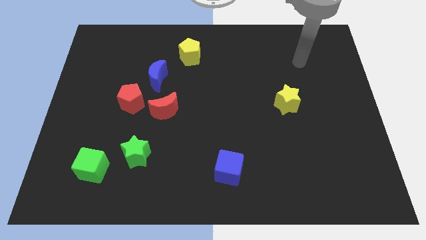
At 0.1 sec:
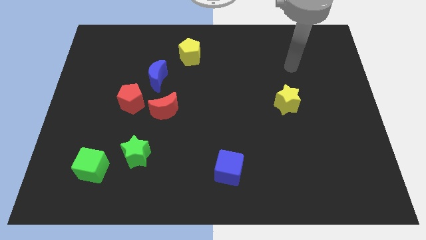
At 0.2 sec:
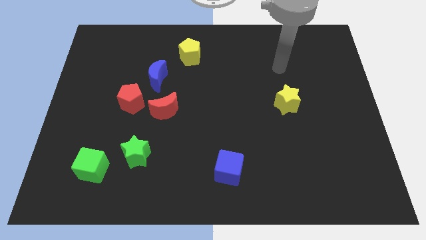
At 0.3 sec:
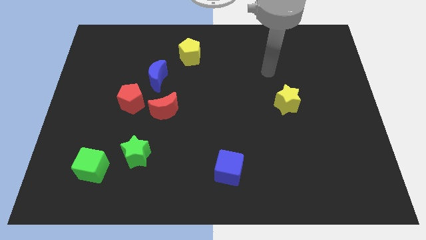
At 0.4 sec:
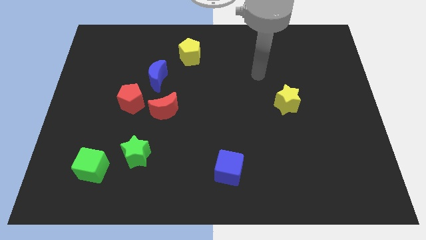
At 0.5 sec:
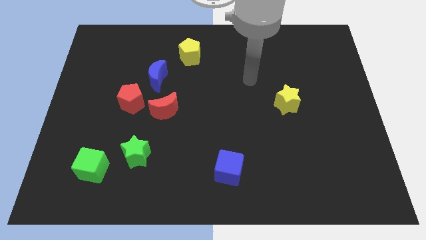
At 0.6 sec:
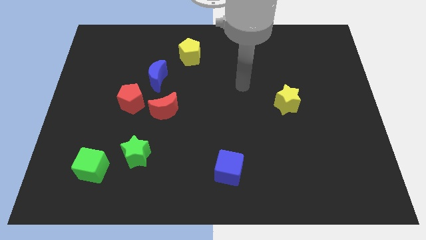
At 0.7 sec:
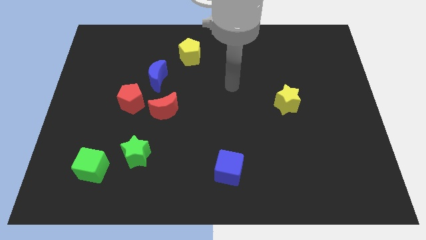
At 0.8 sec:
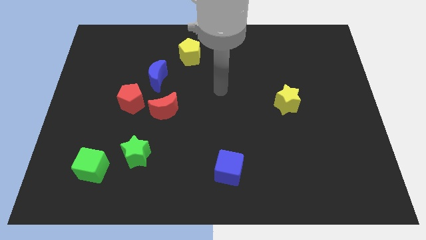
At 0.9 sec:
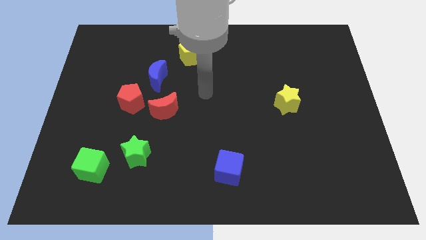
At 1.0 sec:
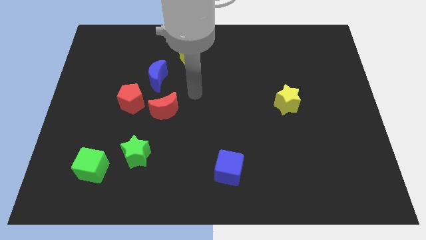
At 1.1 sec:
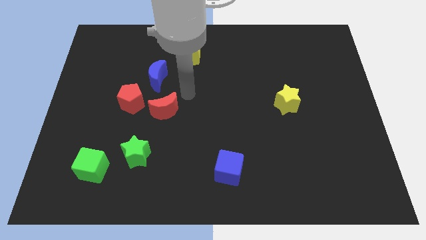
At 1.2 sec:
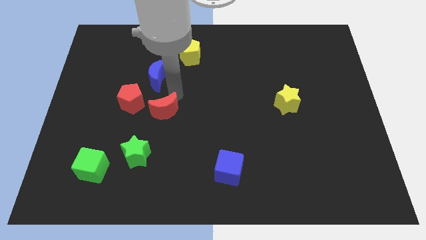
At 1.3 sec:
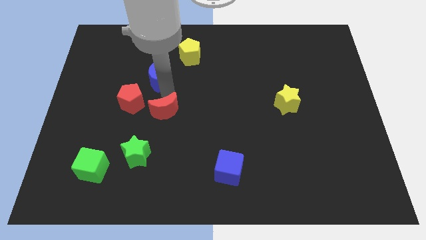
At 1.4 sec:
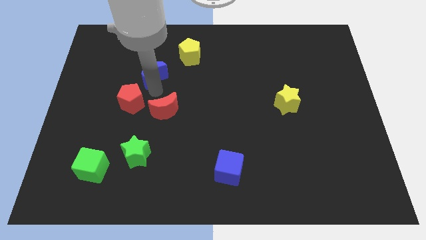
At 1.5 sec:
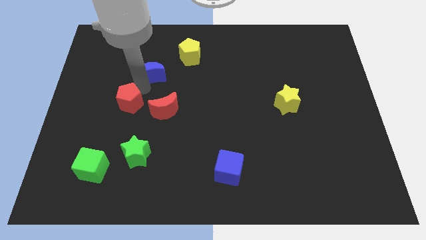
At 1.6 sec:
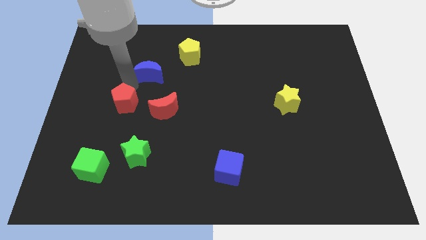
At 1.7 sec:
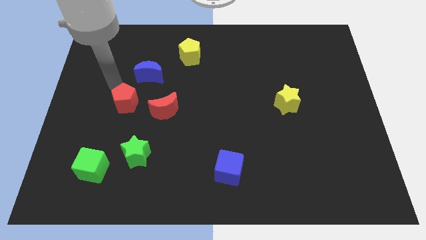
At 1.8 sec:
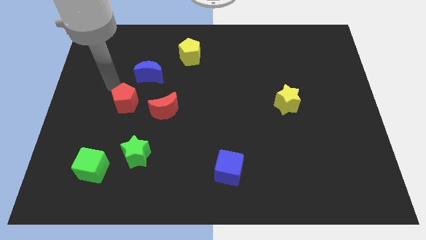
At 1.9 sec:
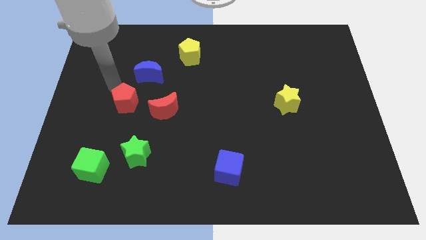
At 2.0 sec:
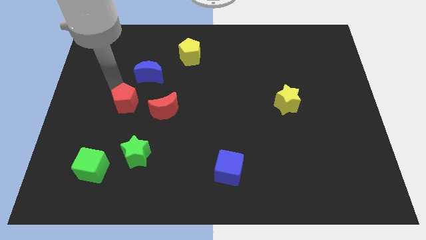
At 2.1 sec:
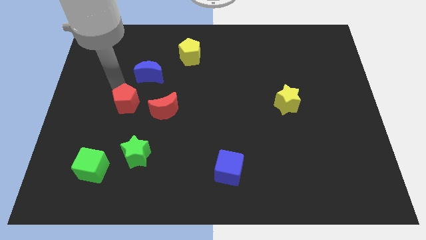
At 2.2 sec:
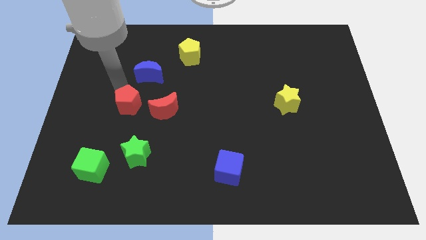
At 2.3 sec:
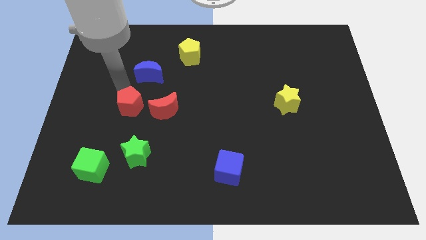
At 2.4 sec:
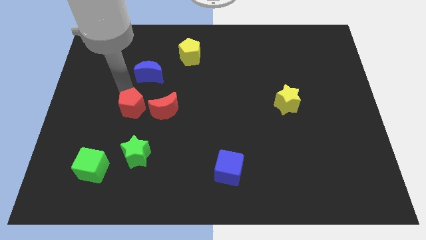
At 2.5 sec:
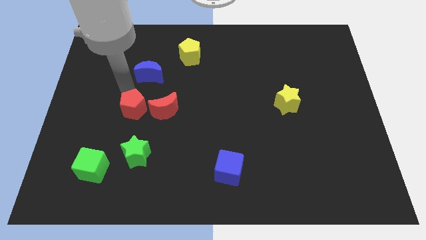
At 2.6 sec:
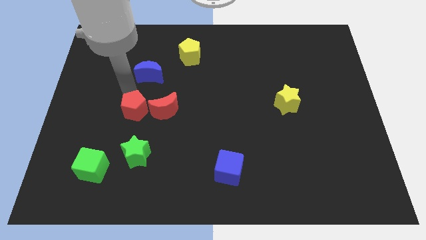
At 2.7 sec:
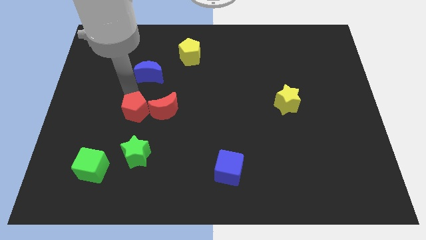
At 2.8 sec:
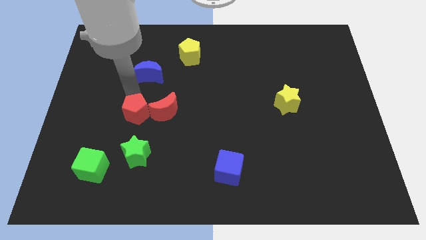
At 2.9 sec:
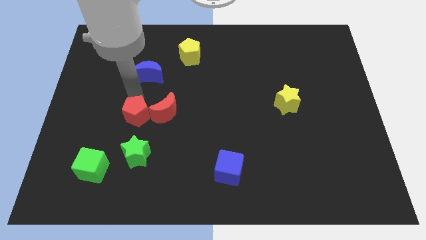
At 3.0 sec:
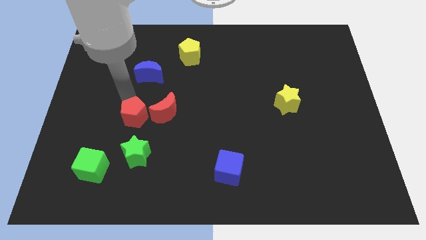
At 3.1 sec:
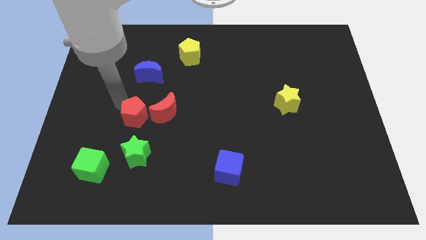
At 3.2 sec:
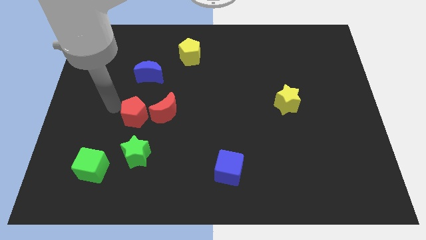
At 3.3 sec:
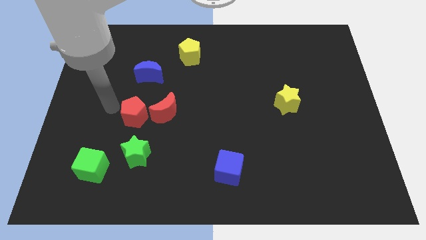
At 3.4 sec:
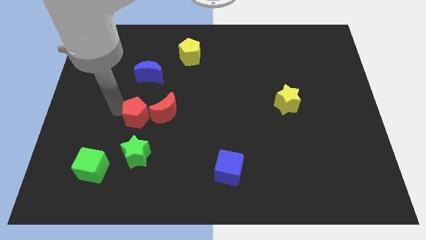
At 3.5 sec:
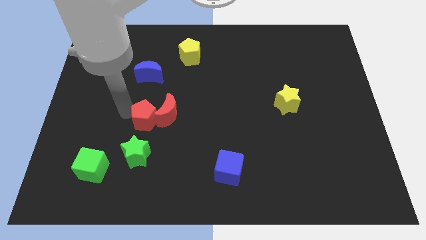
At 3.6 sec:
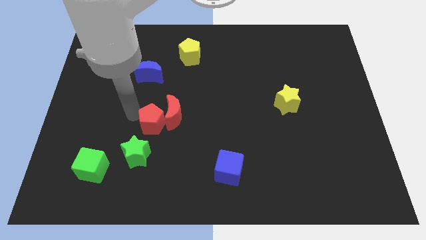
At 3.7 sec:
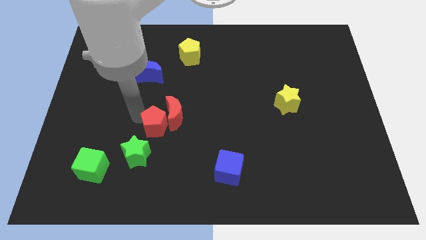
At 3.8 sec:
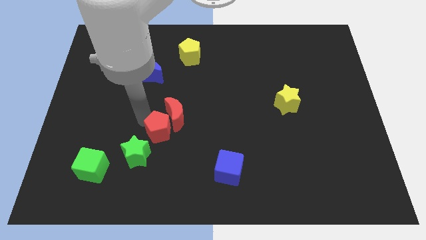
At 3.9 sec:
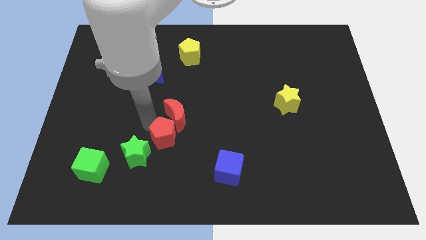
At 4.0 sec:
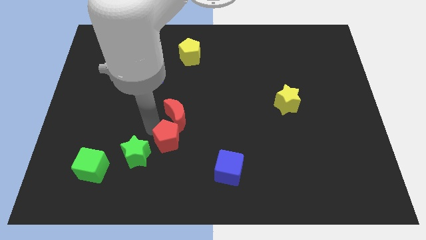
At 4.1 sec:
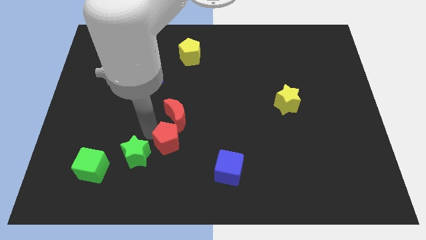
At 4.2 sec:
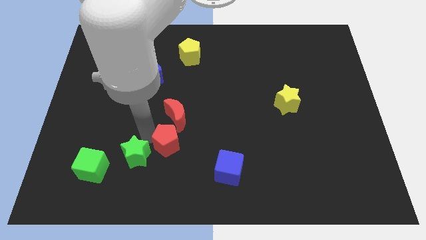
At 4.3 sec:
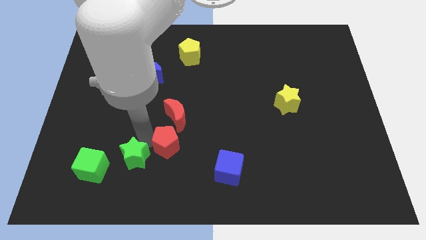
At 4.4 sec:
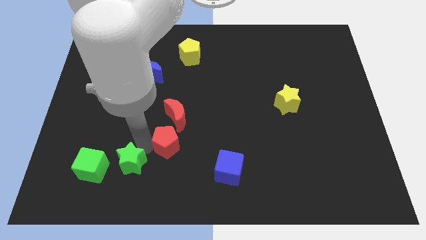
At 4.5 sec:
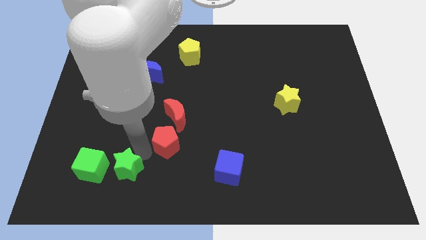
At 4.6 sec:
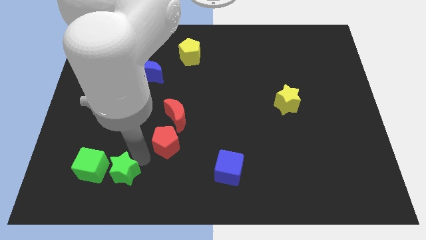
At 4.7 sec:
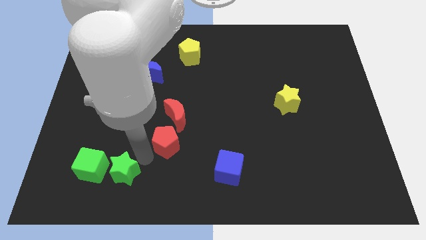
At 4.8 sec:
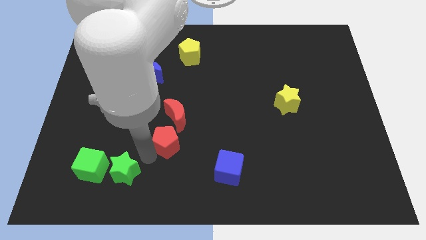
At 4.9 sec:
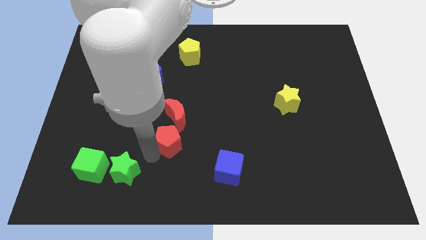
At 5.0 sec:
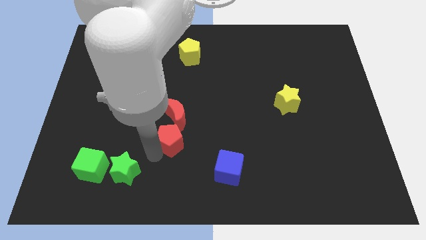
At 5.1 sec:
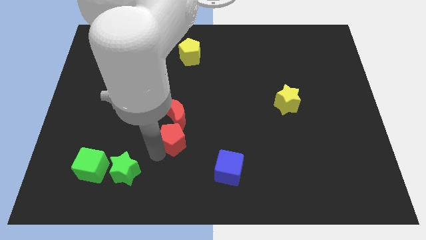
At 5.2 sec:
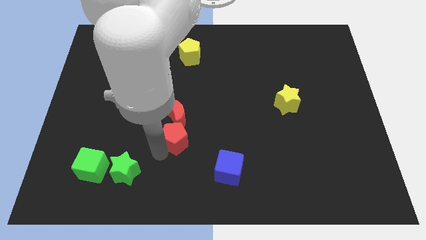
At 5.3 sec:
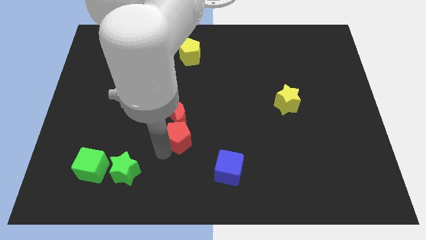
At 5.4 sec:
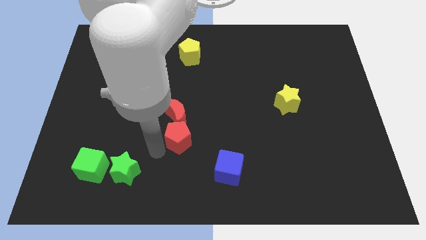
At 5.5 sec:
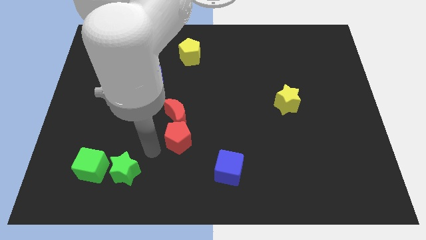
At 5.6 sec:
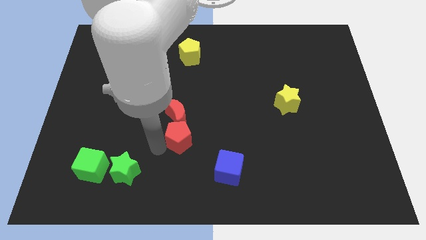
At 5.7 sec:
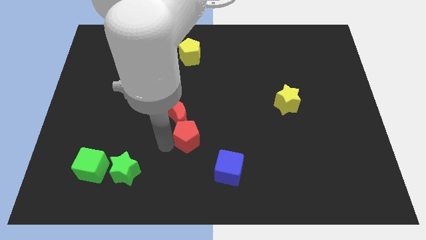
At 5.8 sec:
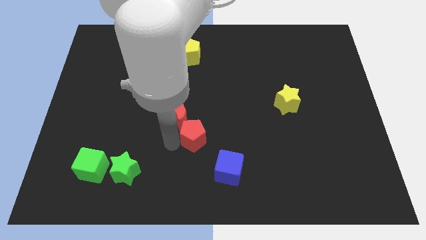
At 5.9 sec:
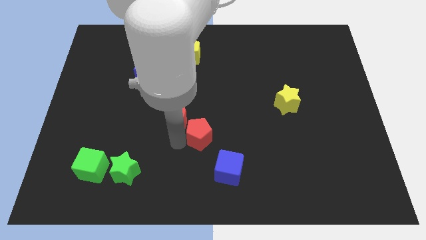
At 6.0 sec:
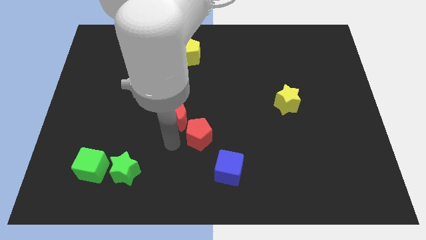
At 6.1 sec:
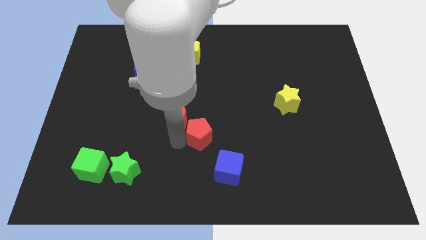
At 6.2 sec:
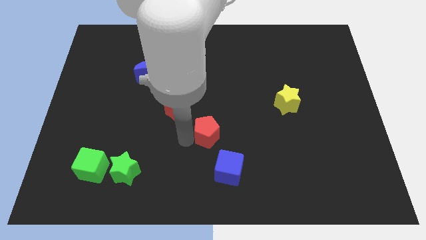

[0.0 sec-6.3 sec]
put the red pentagon to the top of the blue cube

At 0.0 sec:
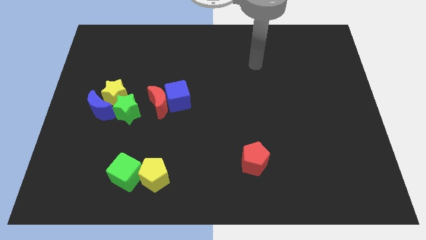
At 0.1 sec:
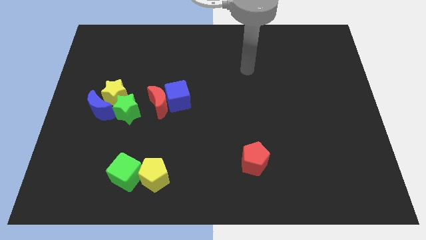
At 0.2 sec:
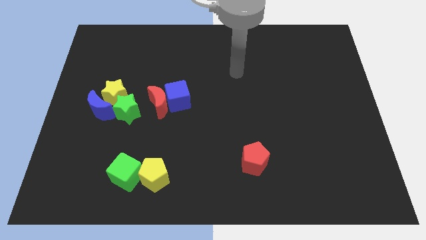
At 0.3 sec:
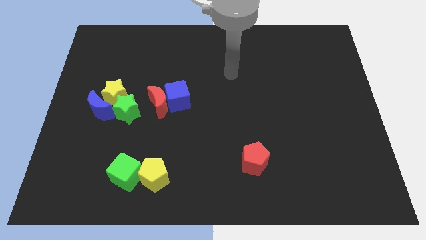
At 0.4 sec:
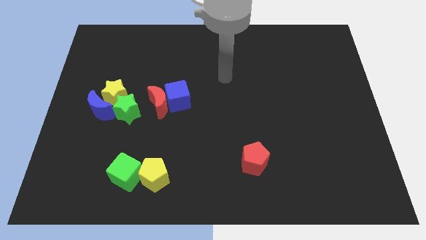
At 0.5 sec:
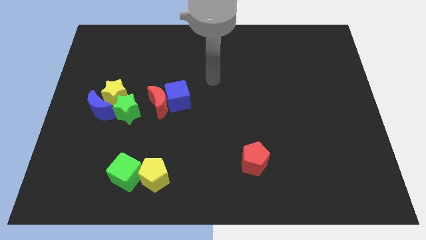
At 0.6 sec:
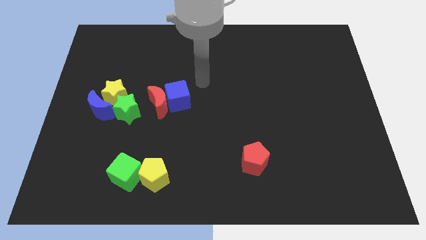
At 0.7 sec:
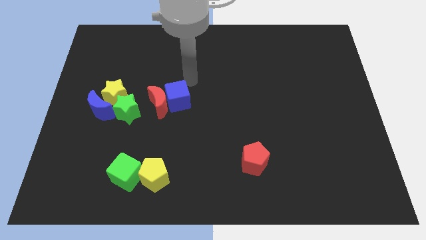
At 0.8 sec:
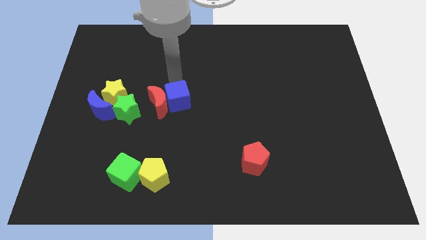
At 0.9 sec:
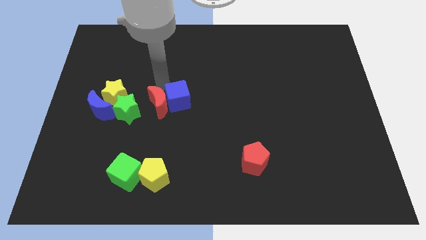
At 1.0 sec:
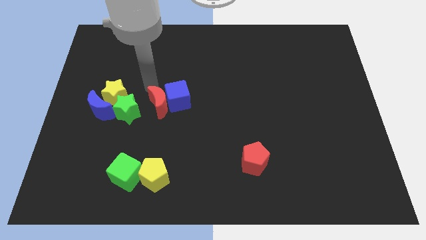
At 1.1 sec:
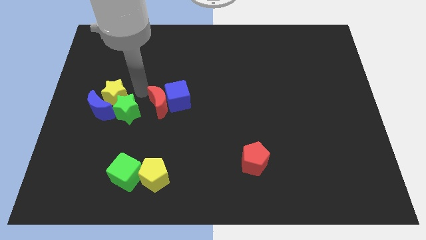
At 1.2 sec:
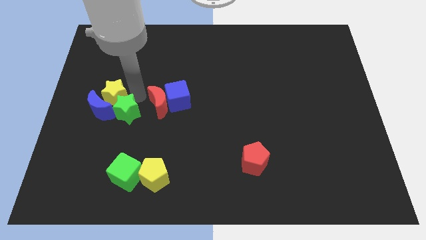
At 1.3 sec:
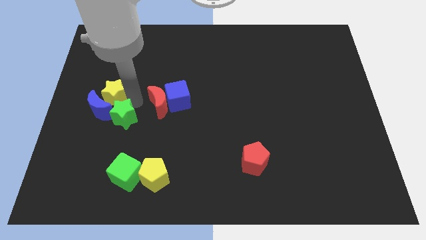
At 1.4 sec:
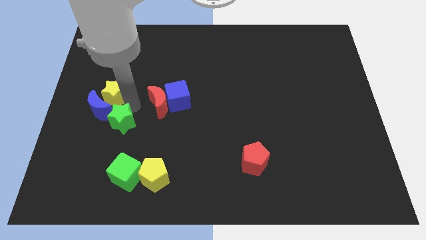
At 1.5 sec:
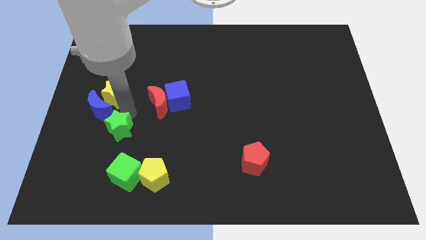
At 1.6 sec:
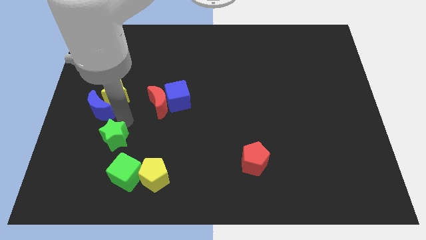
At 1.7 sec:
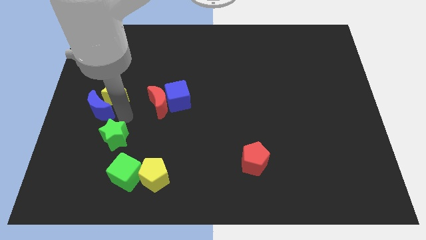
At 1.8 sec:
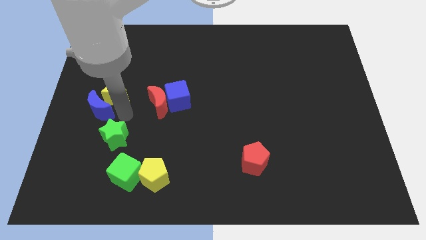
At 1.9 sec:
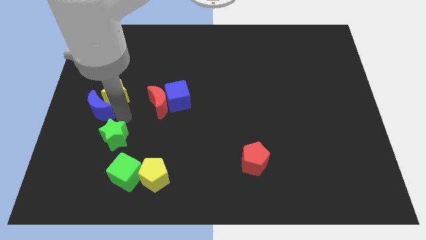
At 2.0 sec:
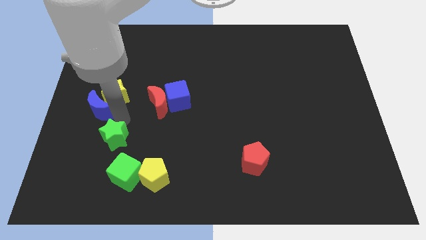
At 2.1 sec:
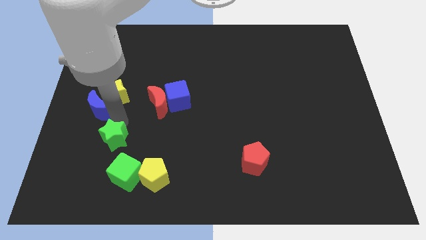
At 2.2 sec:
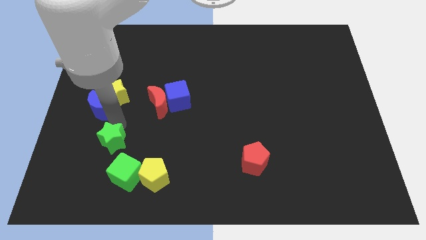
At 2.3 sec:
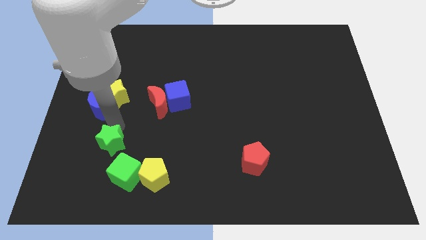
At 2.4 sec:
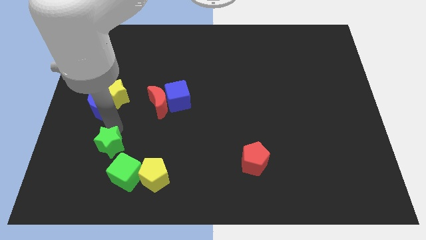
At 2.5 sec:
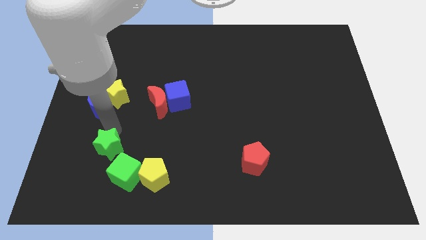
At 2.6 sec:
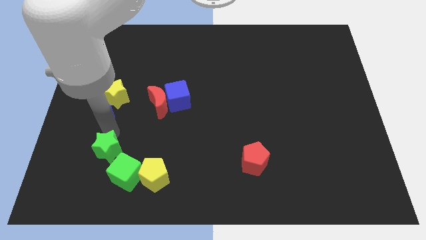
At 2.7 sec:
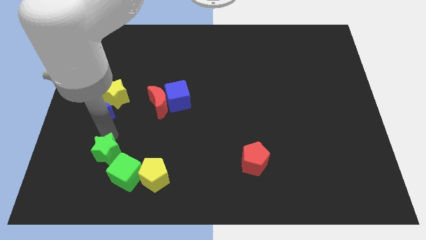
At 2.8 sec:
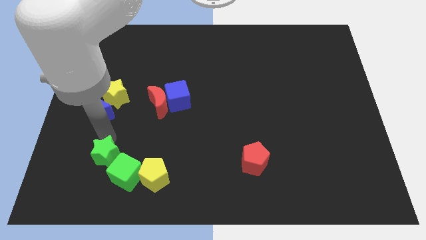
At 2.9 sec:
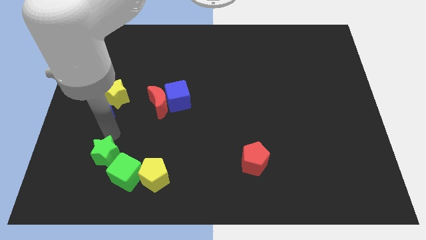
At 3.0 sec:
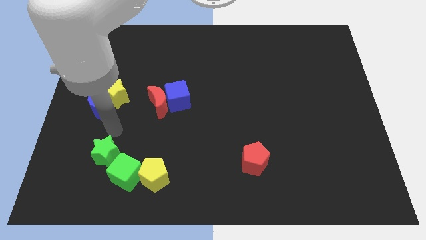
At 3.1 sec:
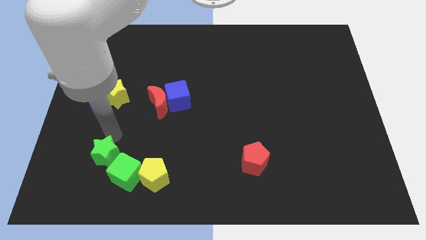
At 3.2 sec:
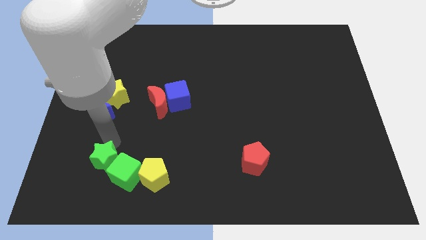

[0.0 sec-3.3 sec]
push the green star left of the yellow pentagon
